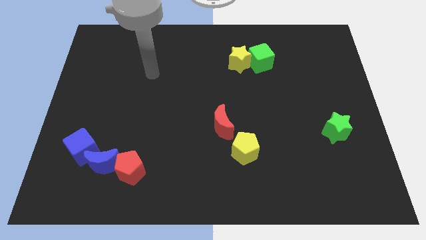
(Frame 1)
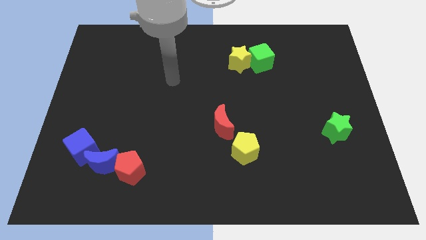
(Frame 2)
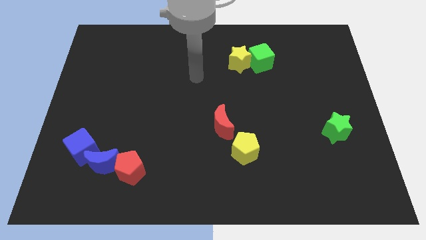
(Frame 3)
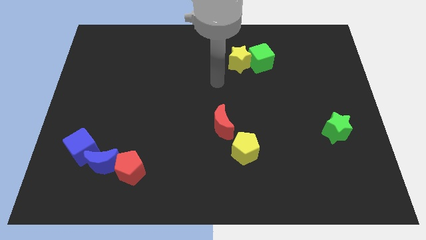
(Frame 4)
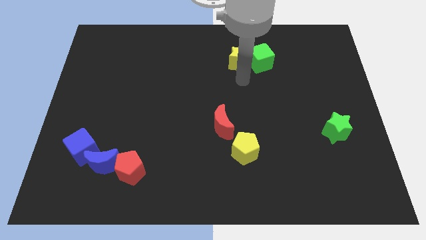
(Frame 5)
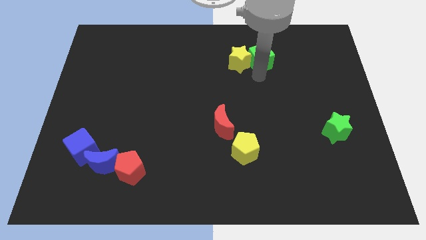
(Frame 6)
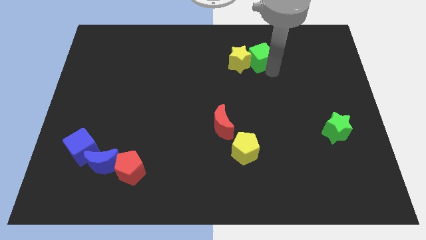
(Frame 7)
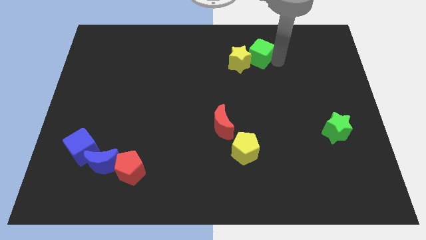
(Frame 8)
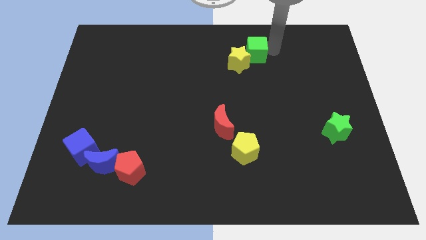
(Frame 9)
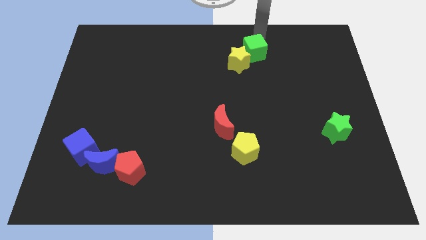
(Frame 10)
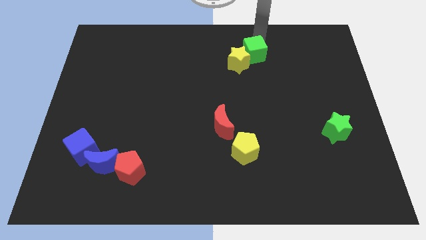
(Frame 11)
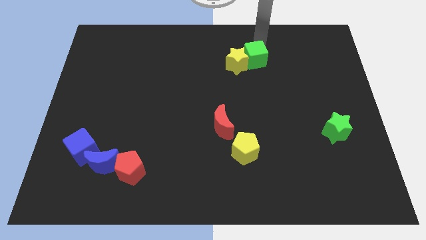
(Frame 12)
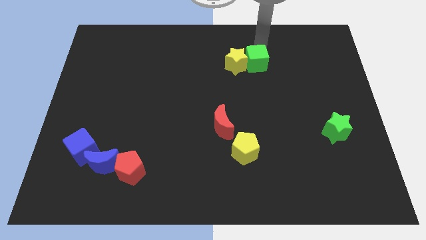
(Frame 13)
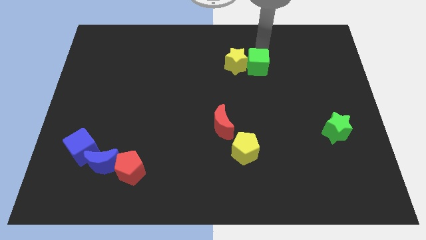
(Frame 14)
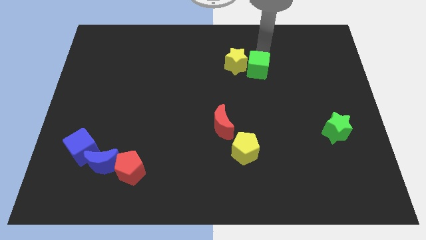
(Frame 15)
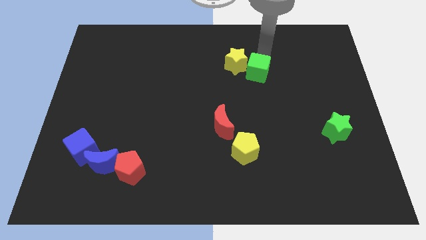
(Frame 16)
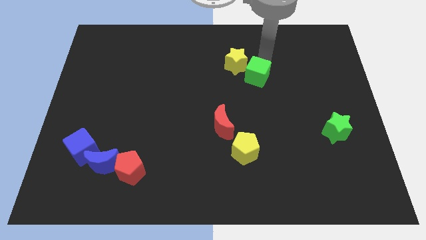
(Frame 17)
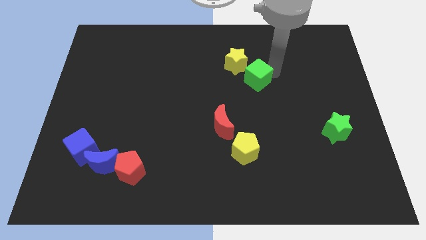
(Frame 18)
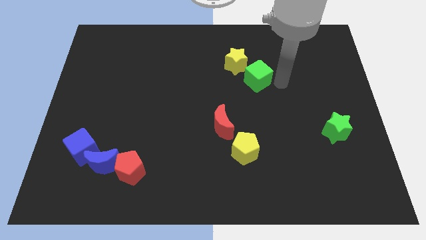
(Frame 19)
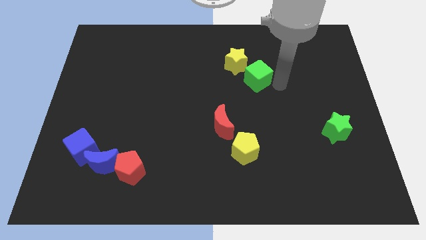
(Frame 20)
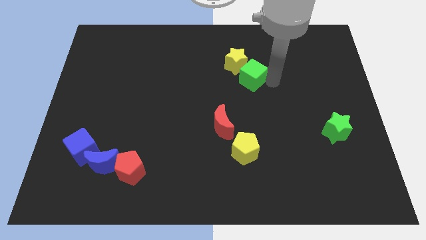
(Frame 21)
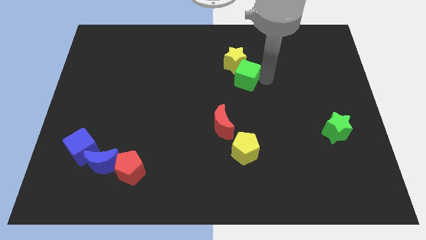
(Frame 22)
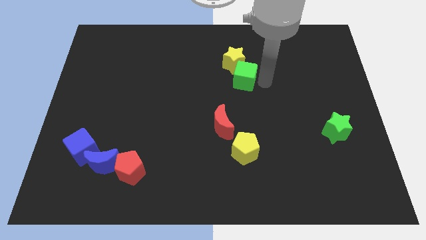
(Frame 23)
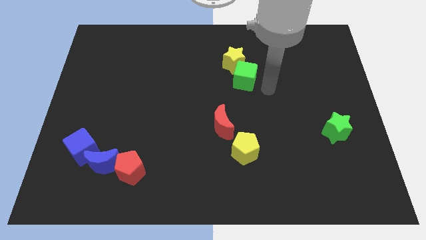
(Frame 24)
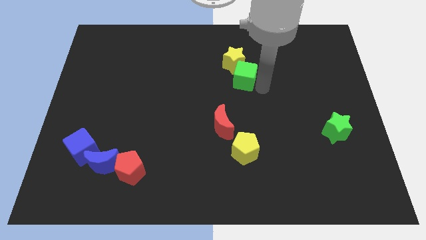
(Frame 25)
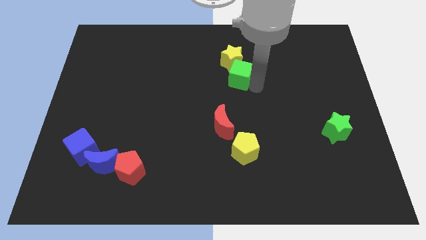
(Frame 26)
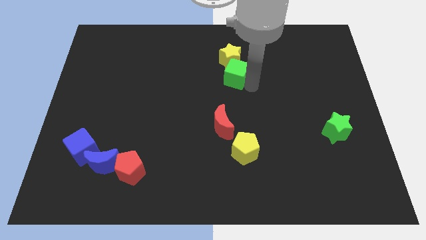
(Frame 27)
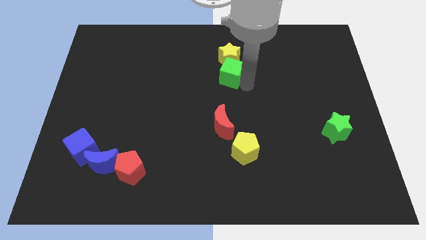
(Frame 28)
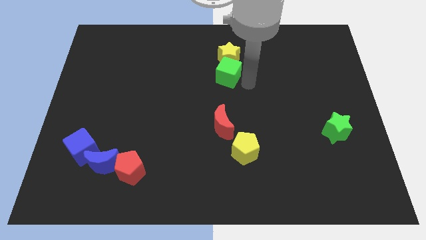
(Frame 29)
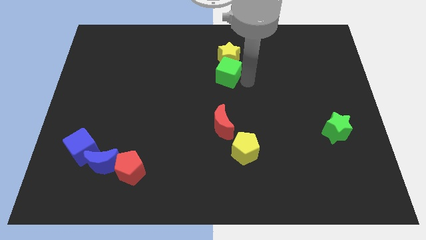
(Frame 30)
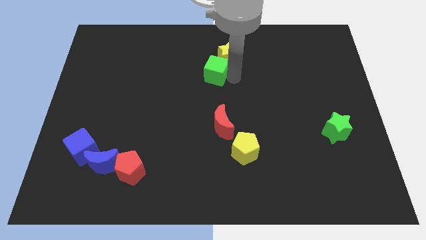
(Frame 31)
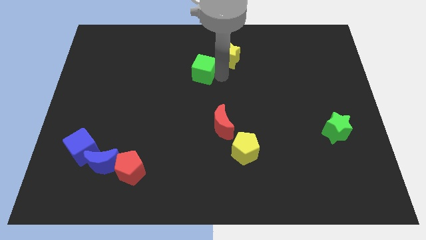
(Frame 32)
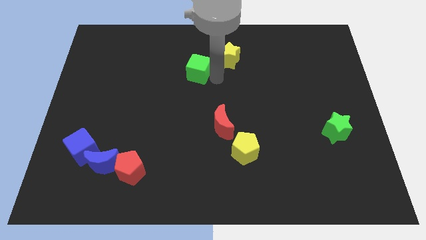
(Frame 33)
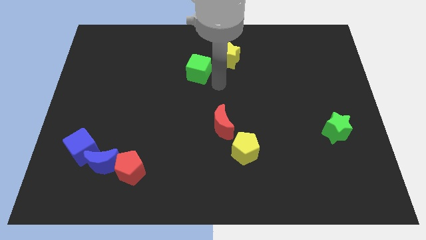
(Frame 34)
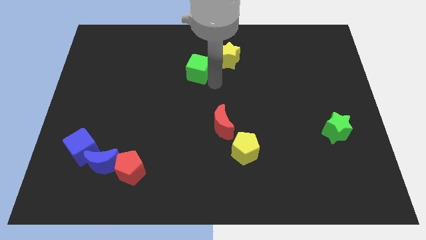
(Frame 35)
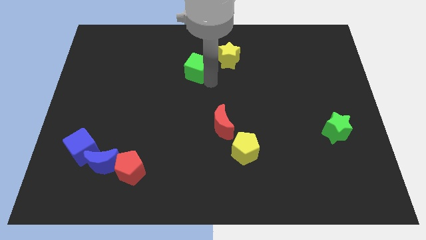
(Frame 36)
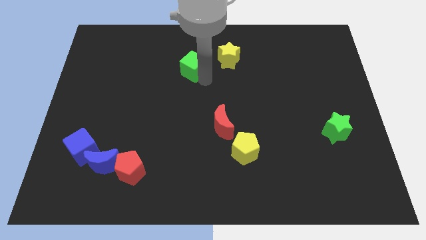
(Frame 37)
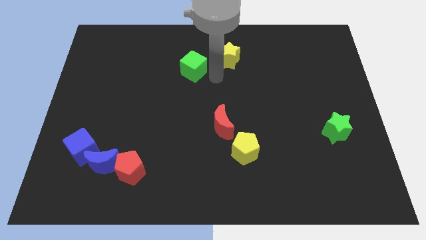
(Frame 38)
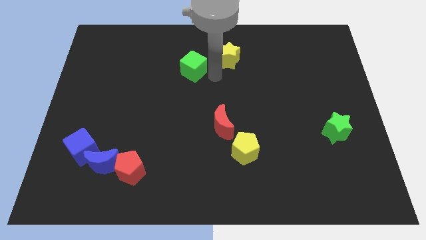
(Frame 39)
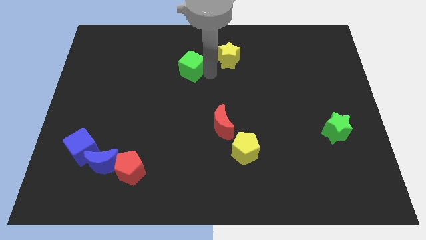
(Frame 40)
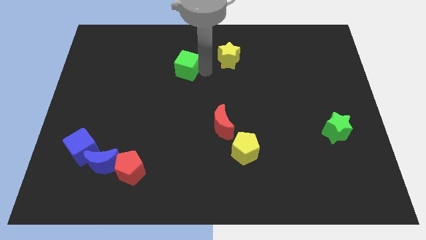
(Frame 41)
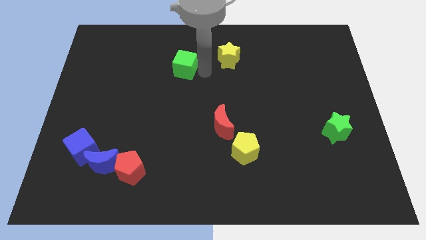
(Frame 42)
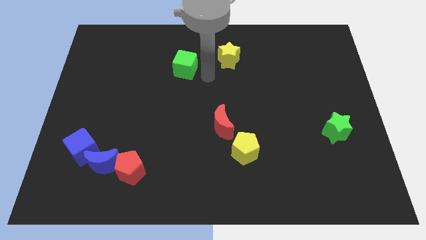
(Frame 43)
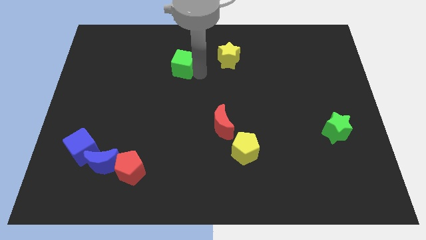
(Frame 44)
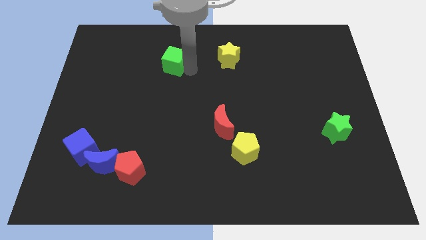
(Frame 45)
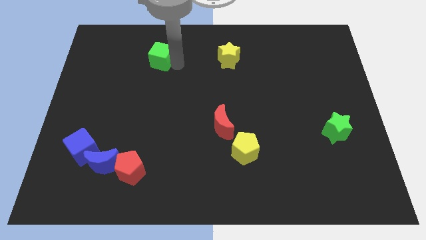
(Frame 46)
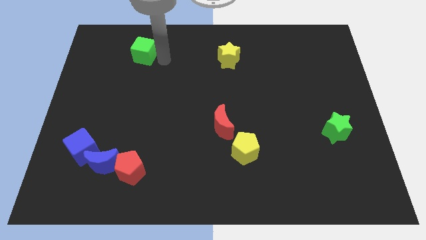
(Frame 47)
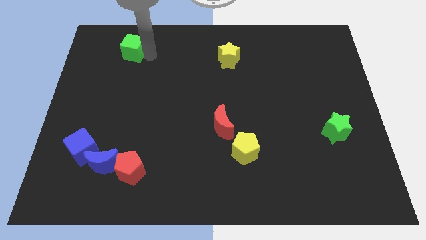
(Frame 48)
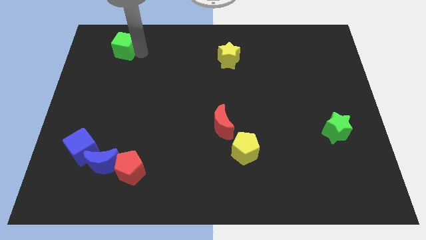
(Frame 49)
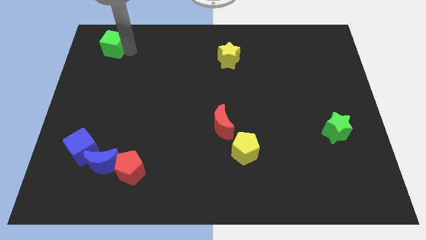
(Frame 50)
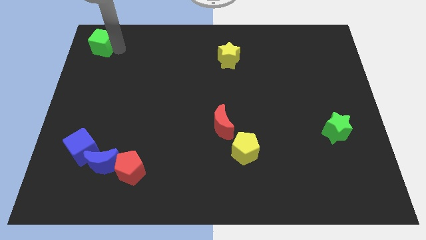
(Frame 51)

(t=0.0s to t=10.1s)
slide the green cube to the top left corner
